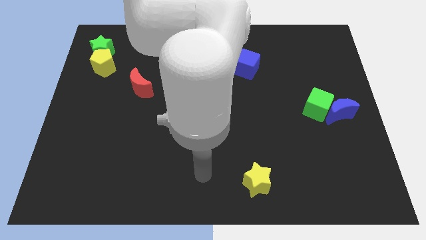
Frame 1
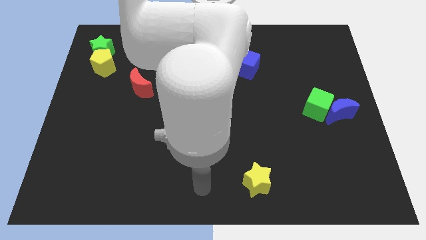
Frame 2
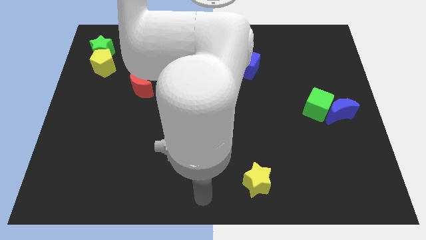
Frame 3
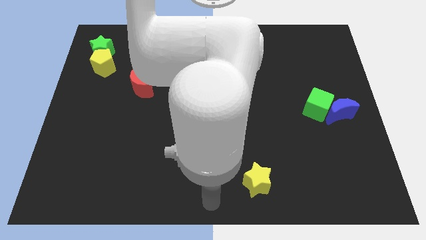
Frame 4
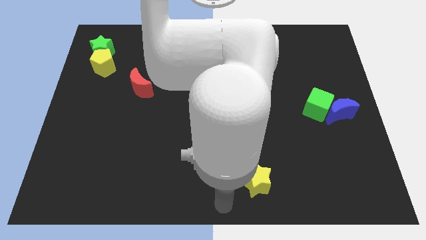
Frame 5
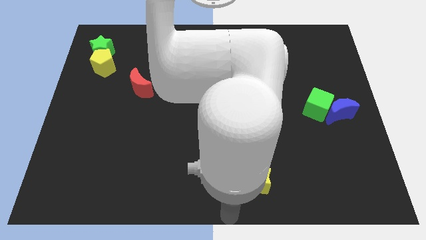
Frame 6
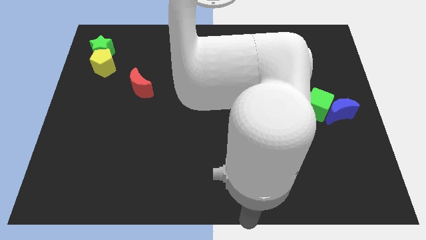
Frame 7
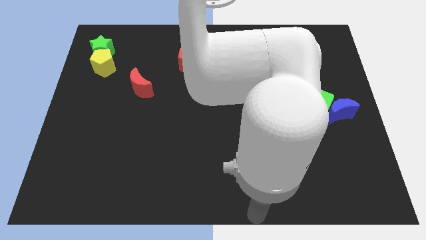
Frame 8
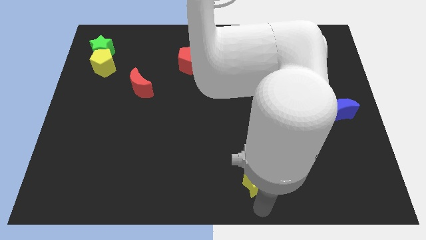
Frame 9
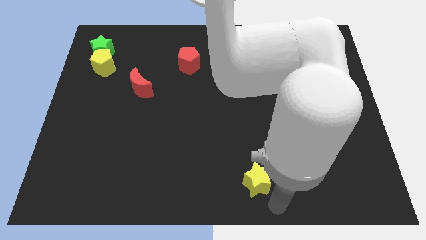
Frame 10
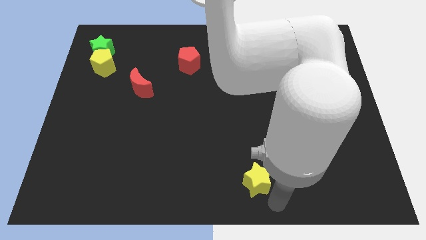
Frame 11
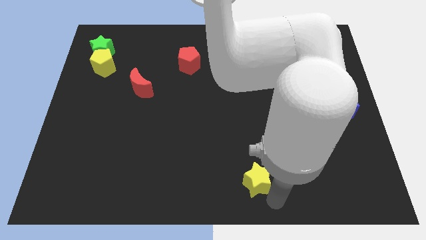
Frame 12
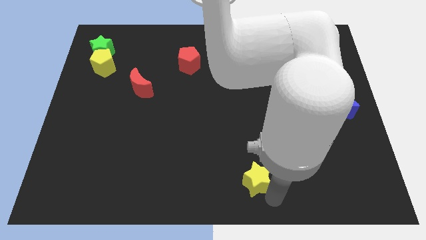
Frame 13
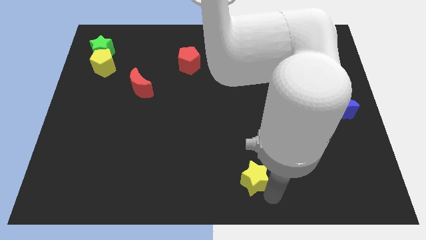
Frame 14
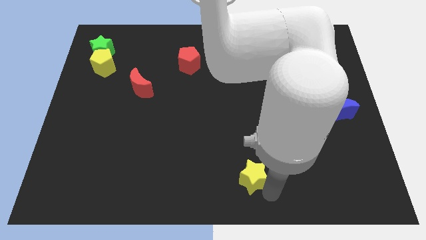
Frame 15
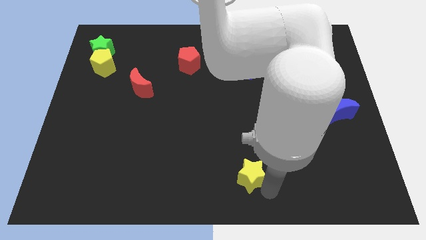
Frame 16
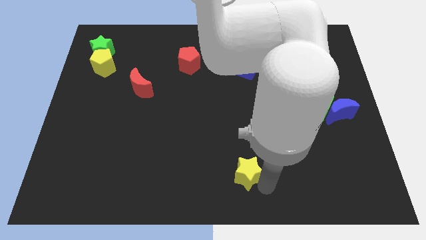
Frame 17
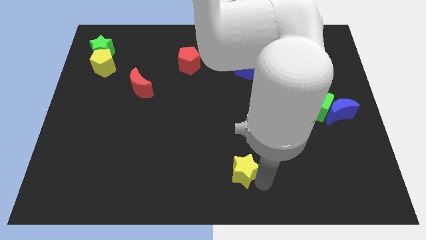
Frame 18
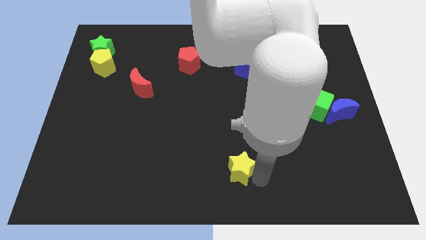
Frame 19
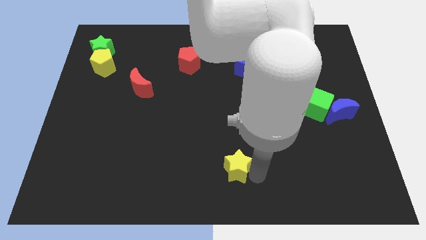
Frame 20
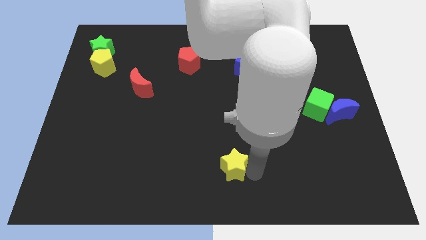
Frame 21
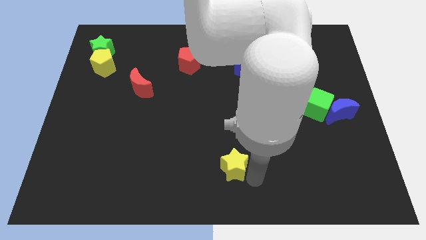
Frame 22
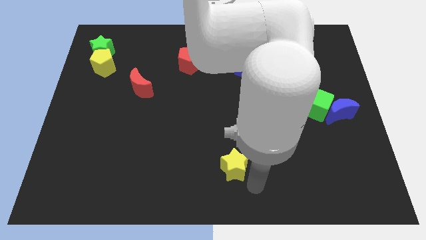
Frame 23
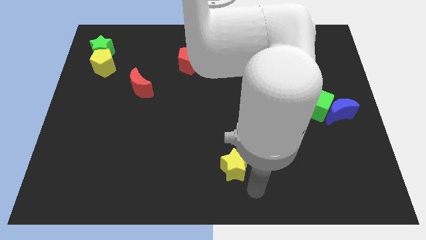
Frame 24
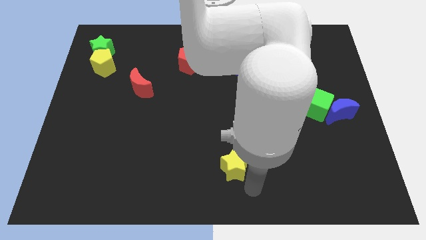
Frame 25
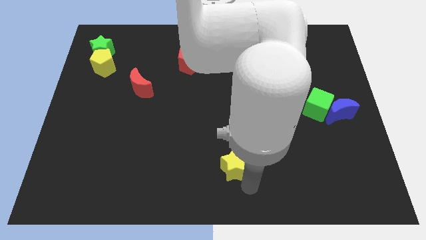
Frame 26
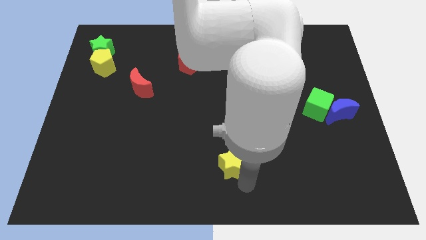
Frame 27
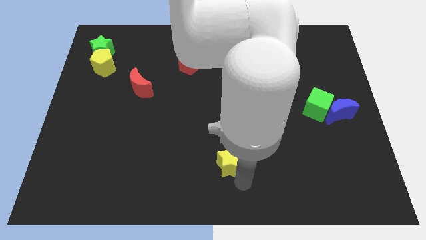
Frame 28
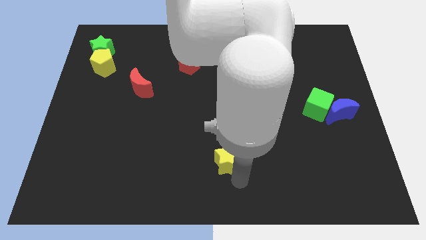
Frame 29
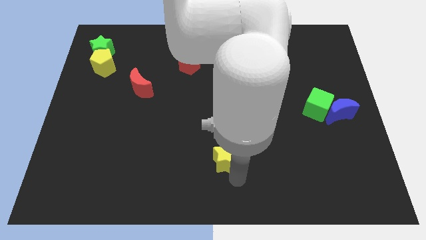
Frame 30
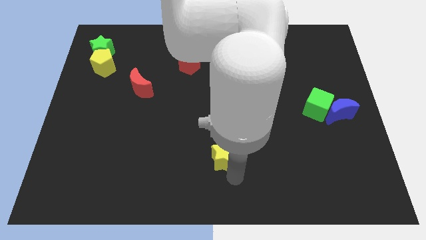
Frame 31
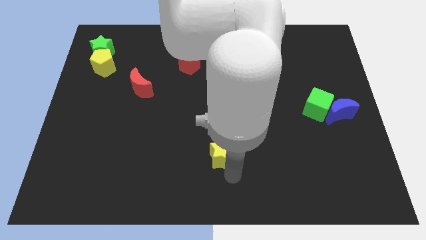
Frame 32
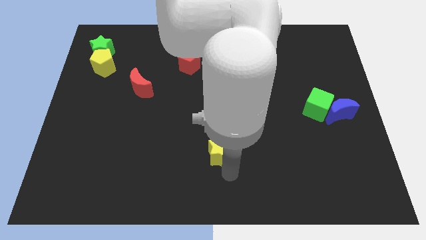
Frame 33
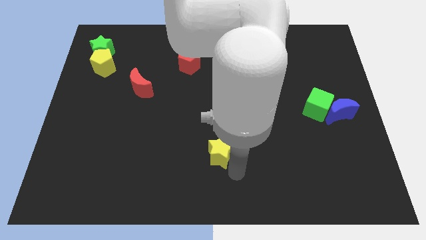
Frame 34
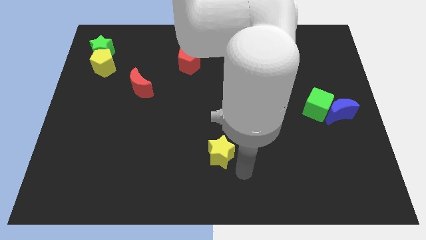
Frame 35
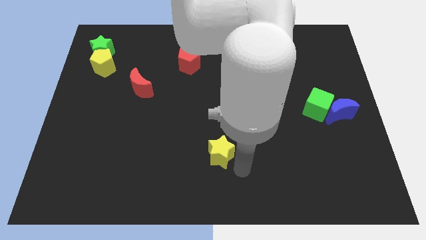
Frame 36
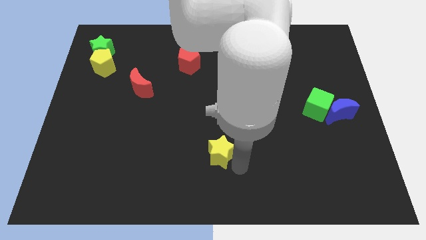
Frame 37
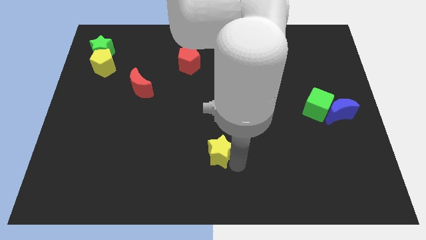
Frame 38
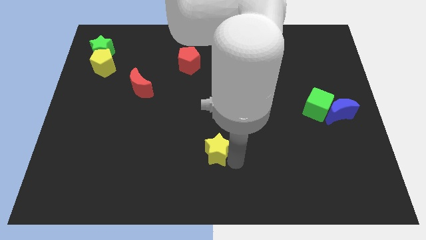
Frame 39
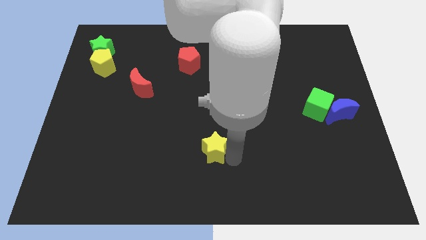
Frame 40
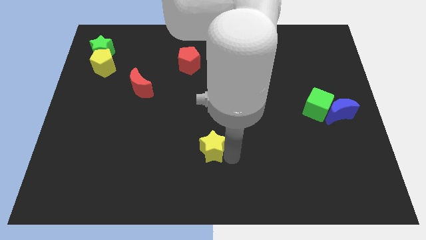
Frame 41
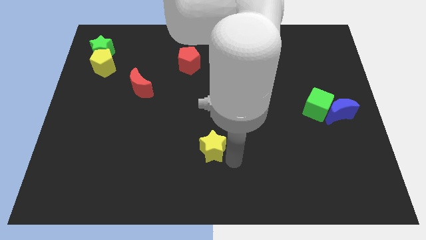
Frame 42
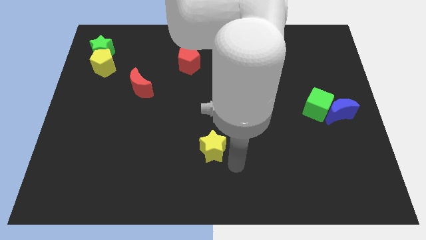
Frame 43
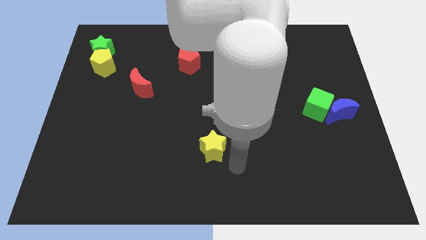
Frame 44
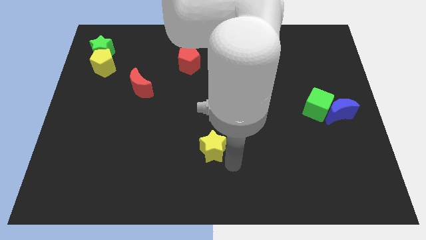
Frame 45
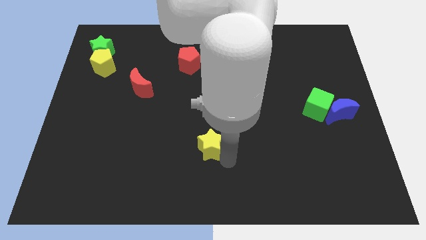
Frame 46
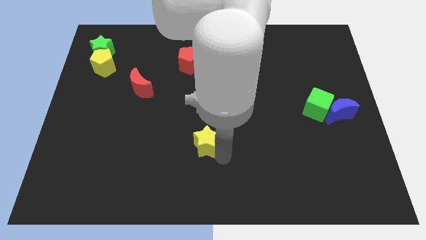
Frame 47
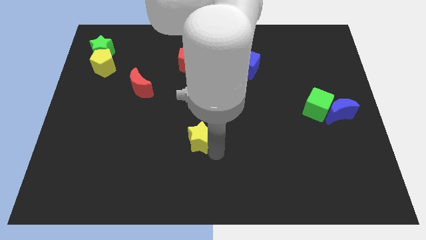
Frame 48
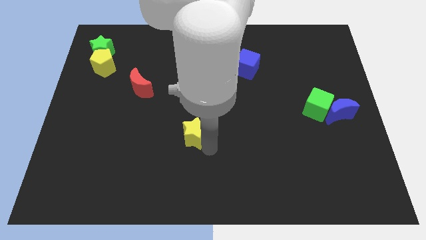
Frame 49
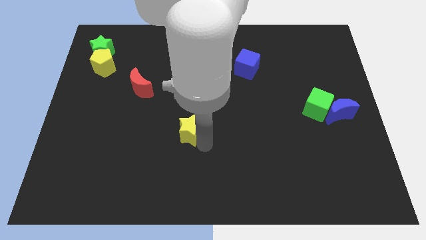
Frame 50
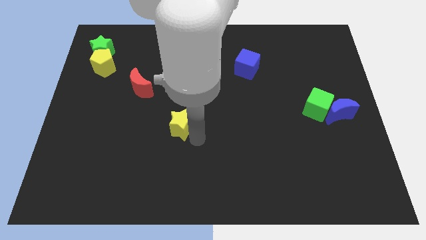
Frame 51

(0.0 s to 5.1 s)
slide the yellow star diagonally upwards and left

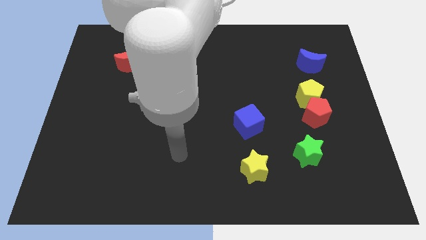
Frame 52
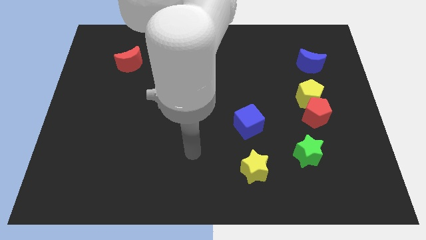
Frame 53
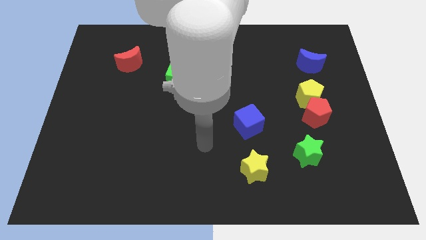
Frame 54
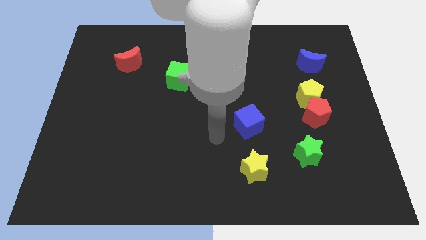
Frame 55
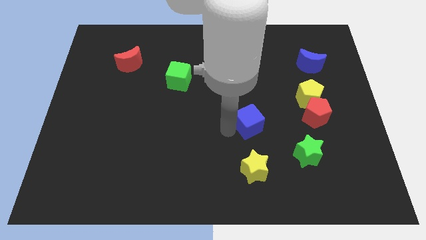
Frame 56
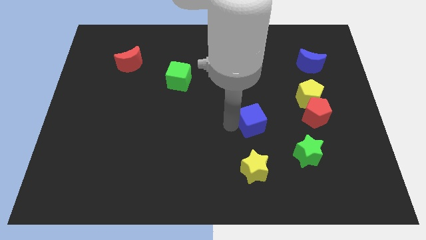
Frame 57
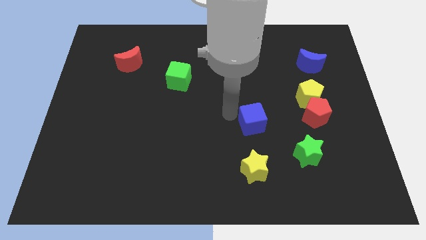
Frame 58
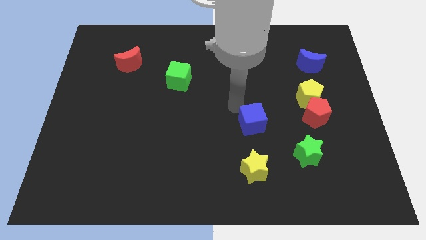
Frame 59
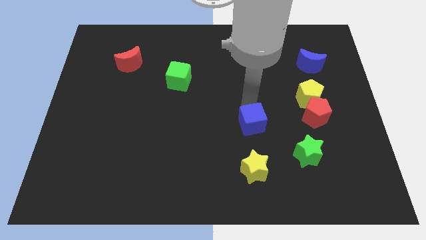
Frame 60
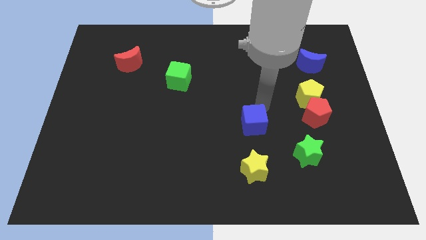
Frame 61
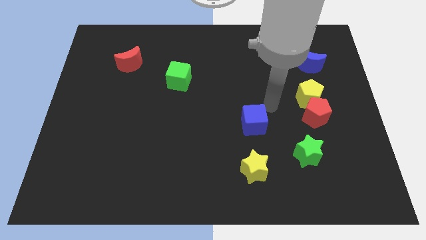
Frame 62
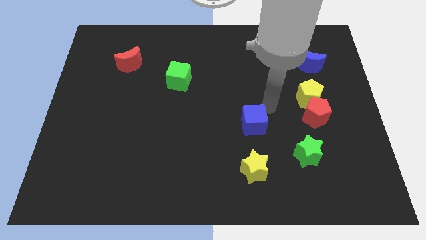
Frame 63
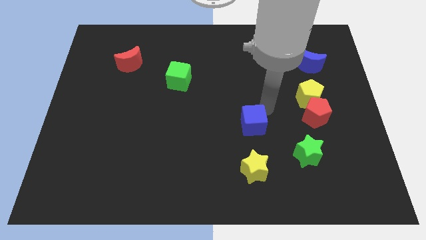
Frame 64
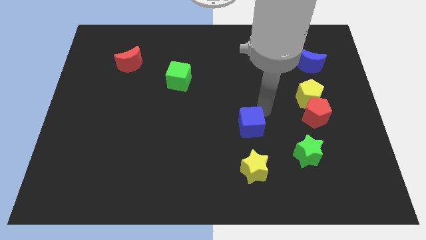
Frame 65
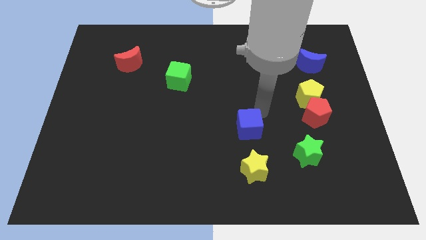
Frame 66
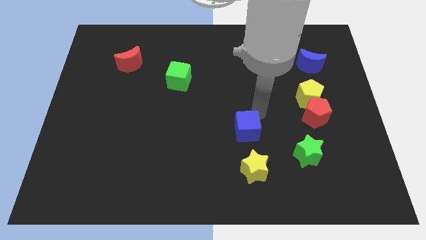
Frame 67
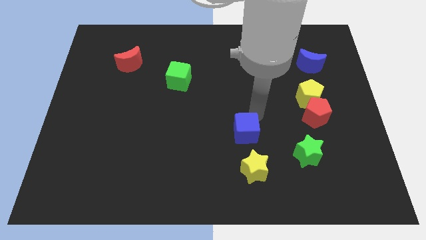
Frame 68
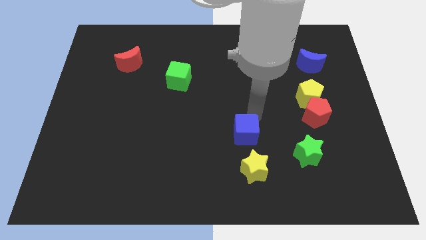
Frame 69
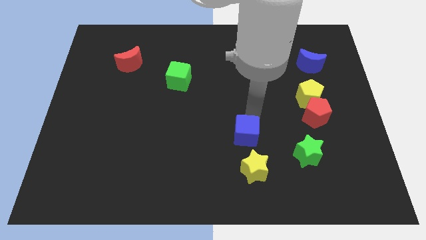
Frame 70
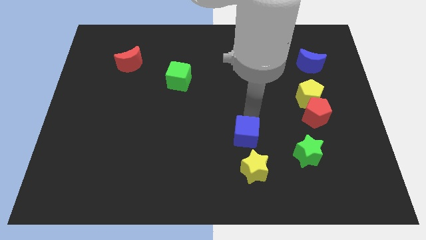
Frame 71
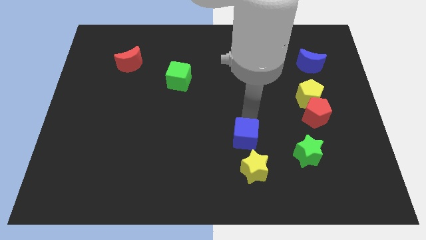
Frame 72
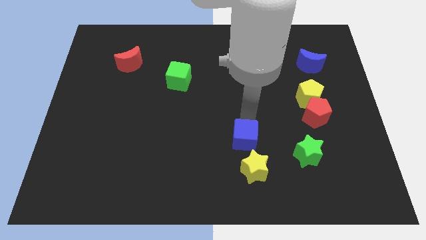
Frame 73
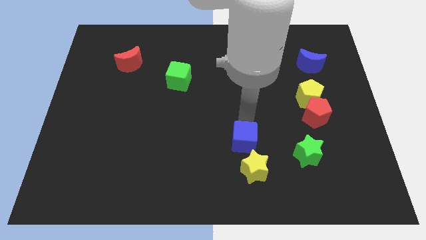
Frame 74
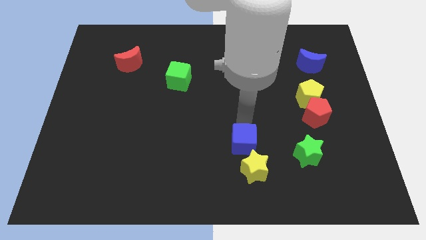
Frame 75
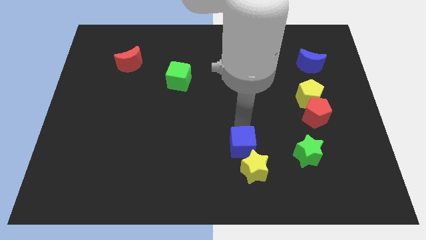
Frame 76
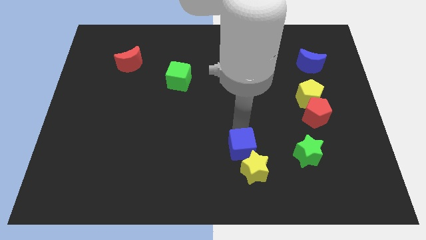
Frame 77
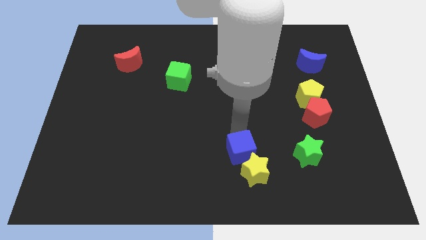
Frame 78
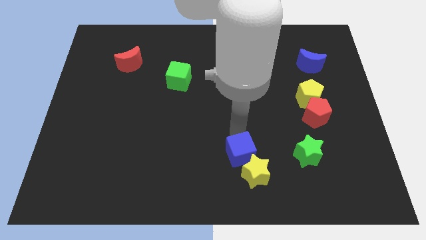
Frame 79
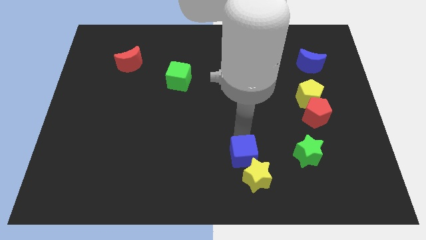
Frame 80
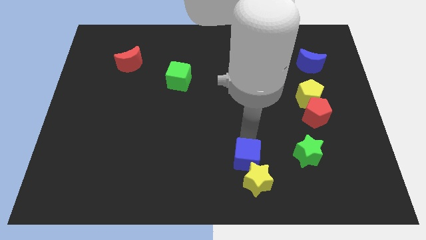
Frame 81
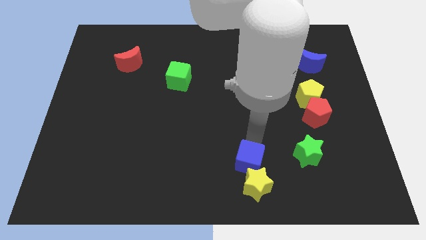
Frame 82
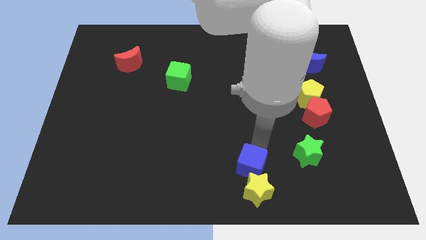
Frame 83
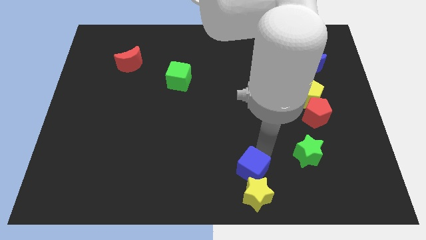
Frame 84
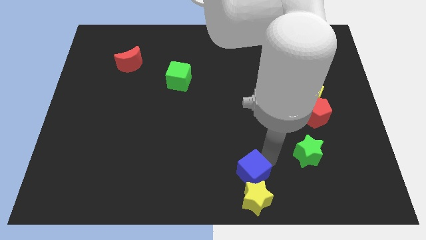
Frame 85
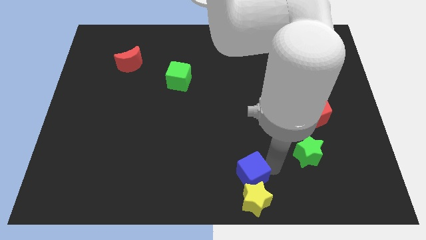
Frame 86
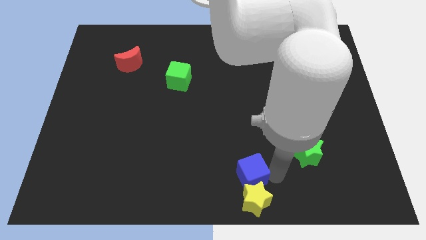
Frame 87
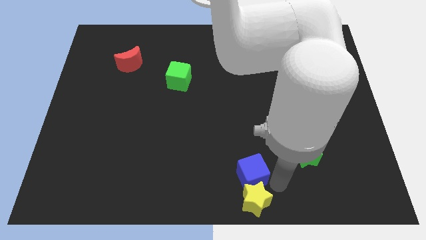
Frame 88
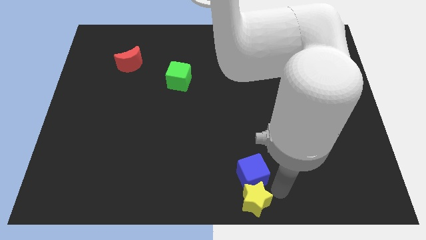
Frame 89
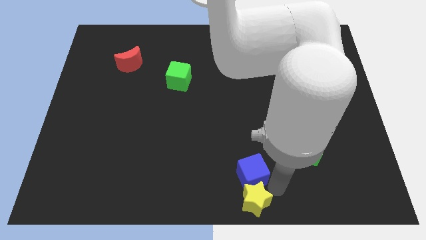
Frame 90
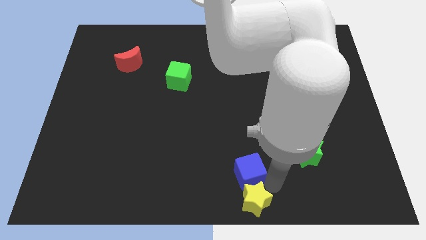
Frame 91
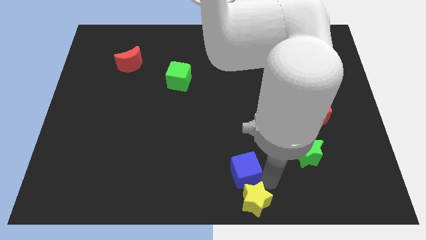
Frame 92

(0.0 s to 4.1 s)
slightly push the blue cube down and left
